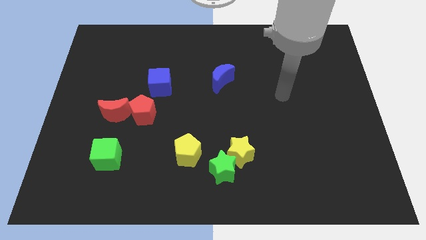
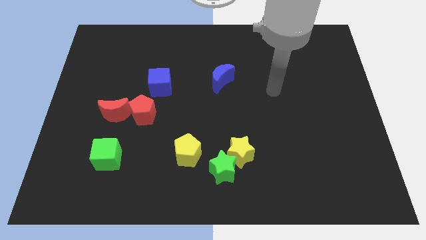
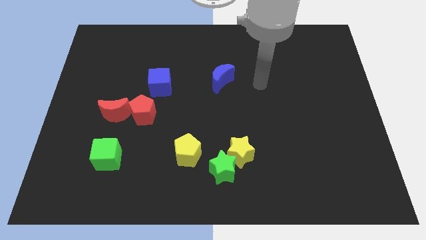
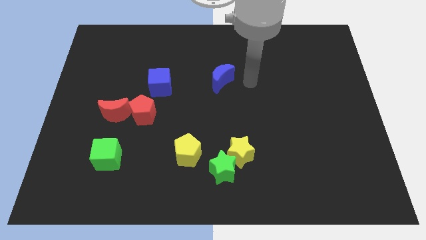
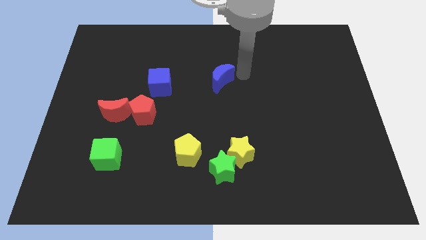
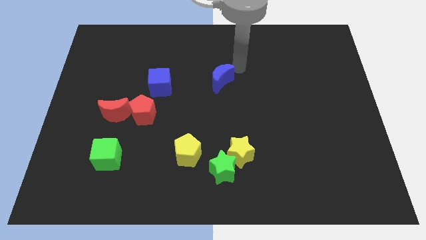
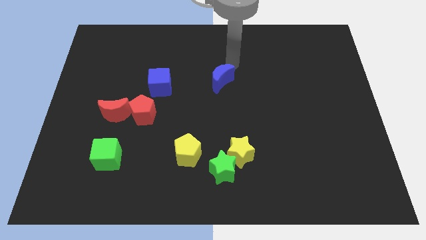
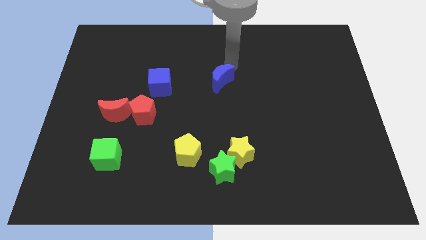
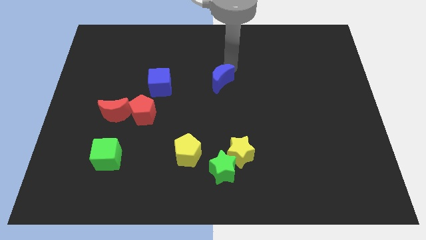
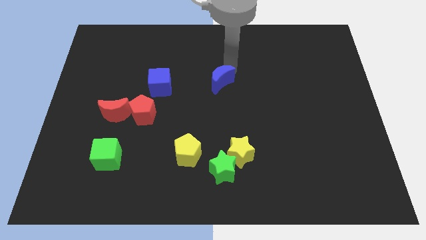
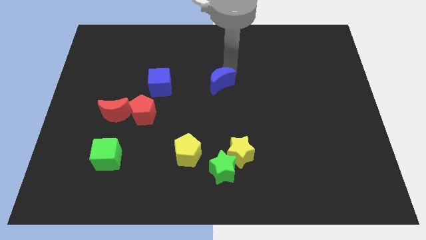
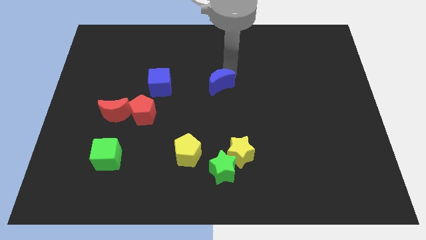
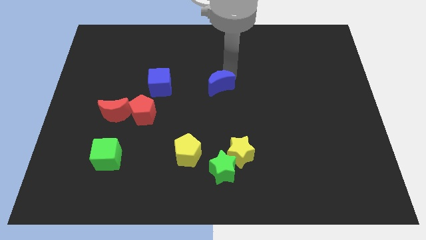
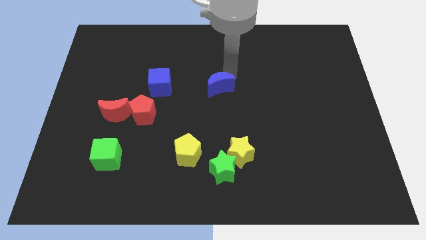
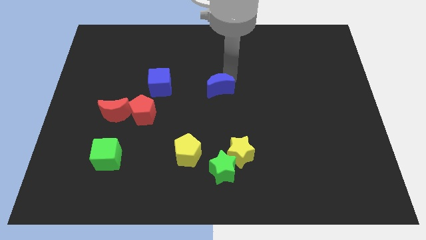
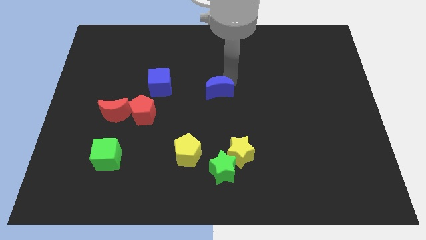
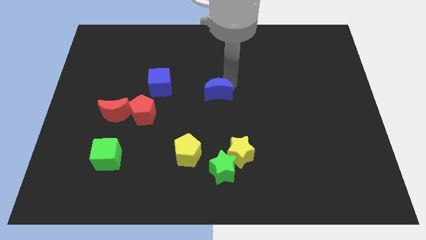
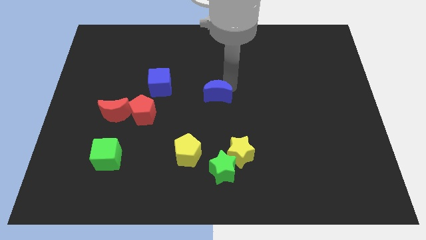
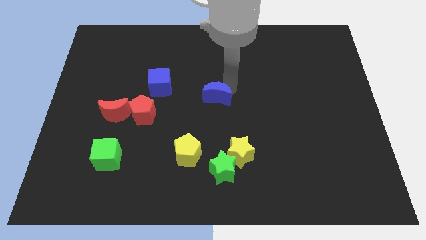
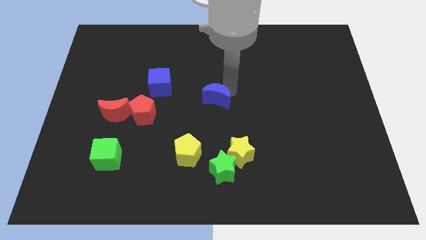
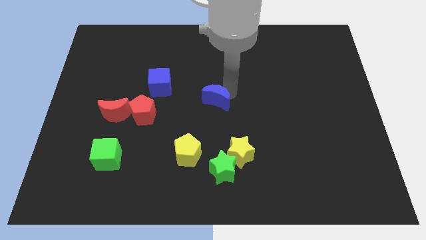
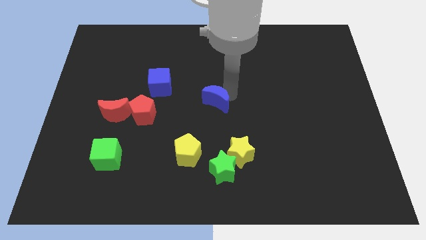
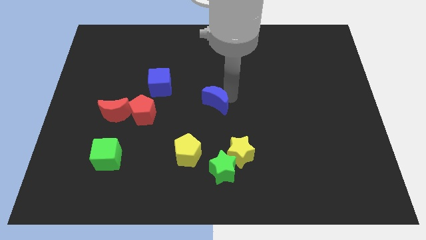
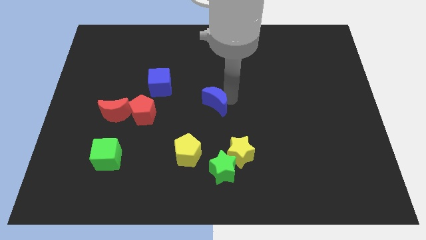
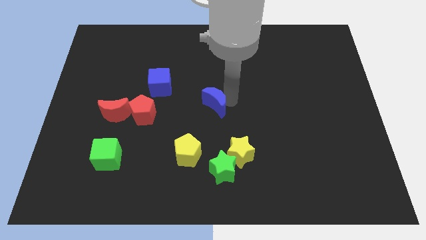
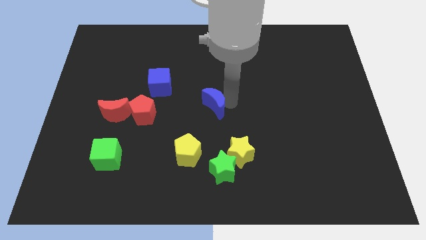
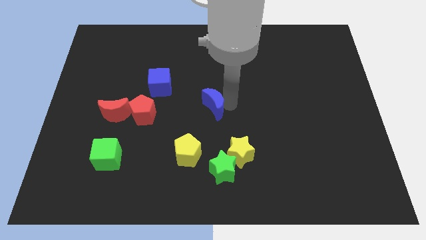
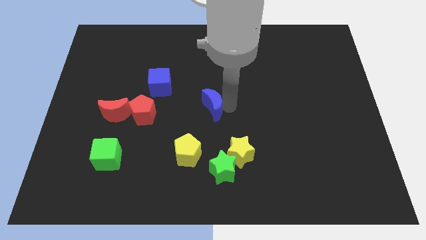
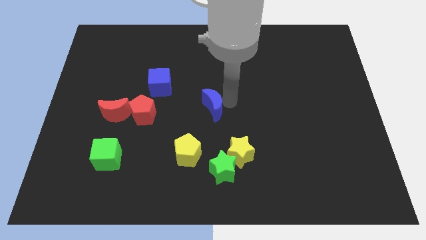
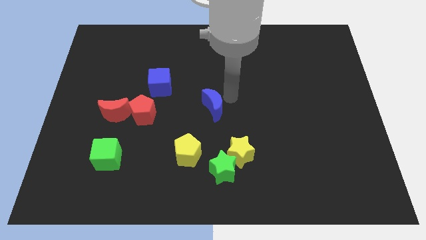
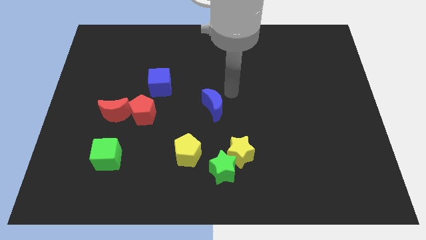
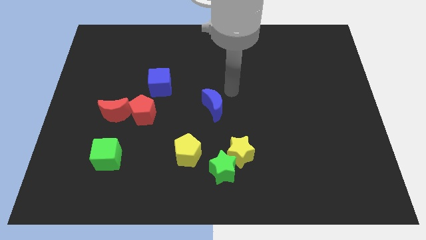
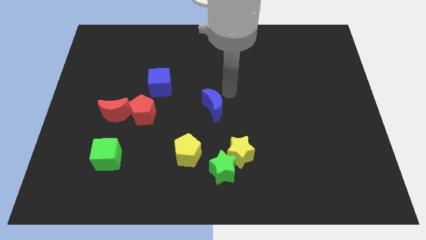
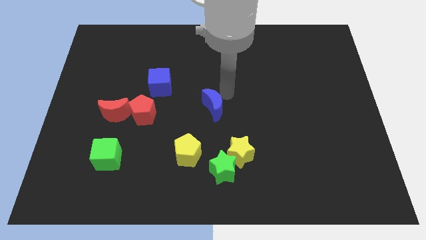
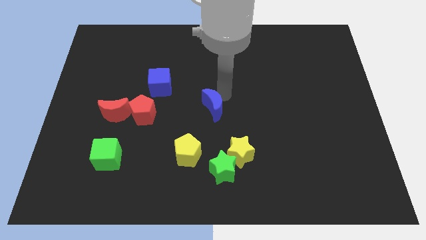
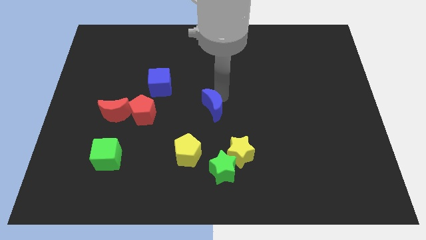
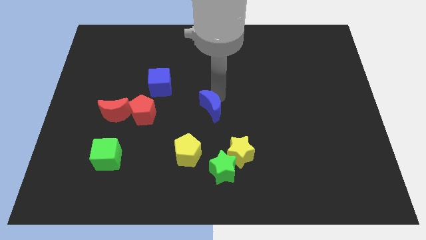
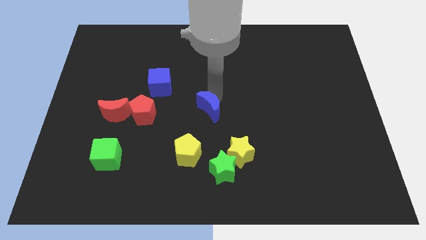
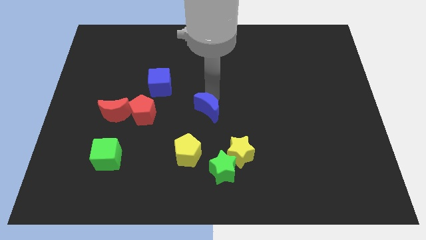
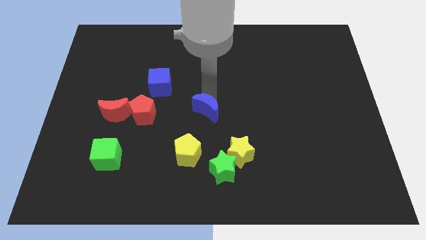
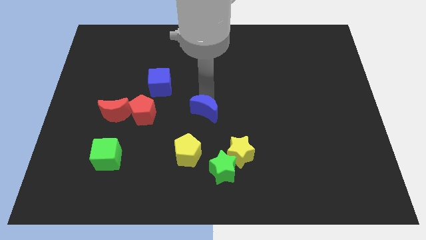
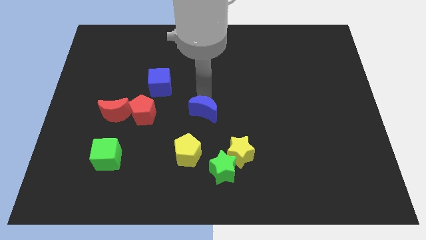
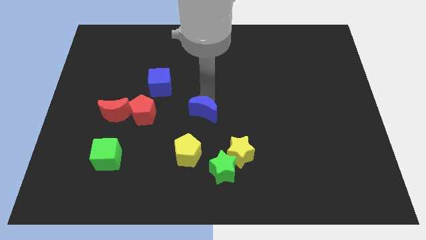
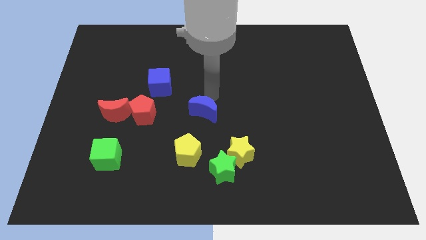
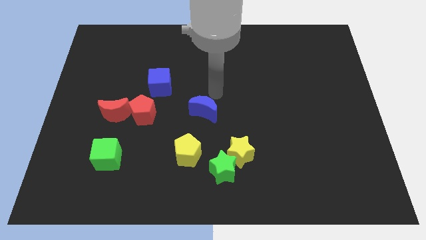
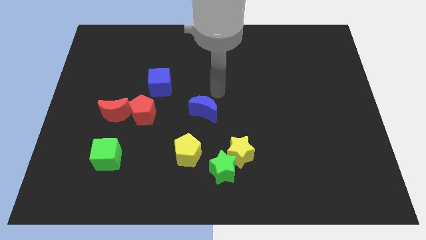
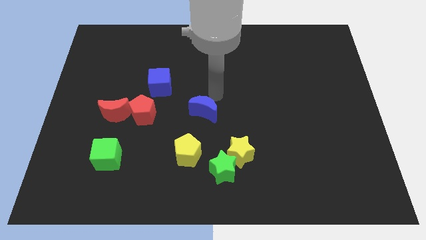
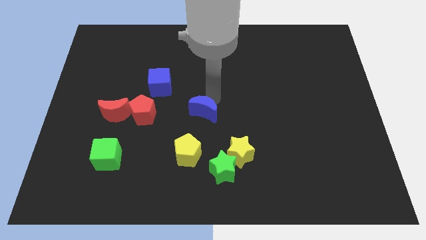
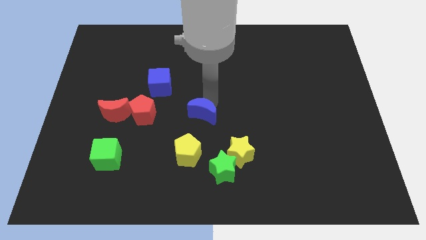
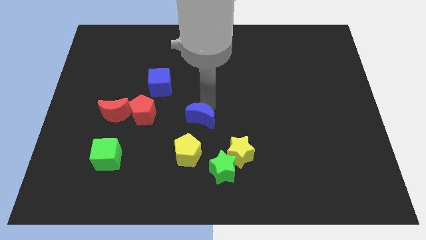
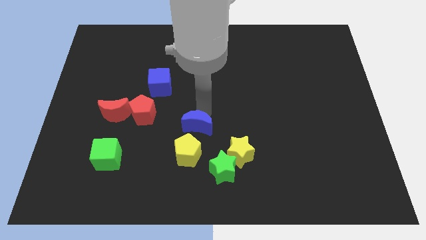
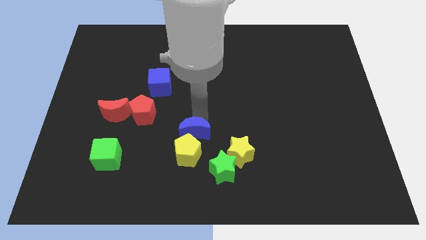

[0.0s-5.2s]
slide the blue moon towards the yellow pentagon

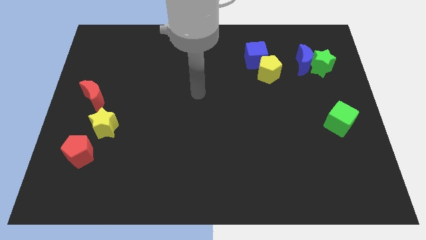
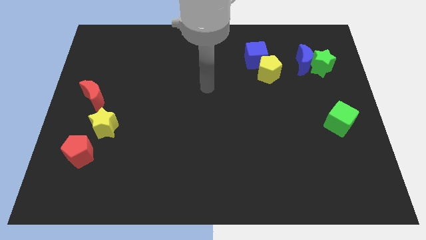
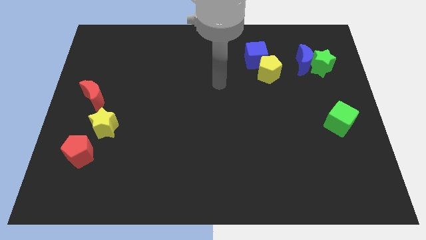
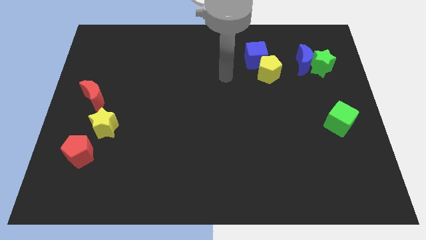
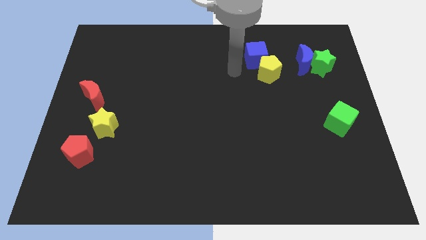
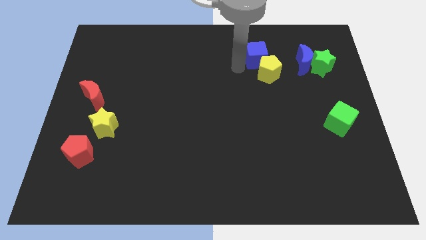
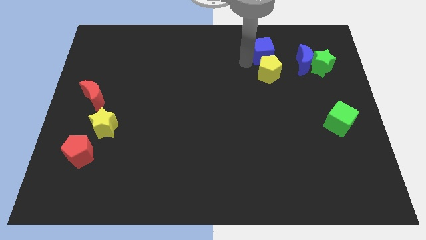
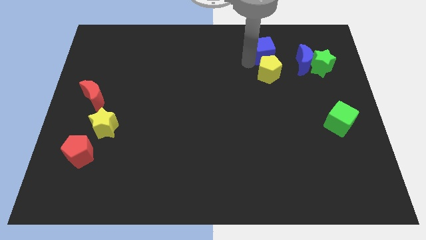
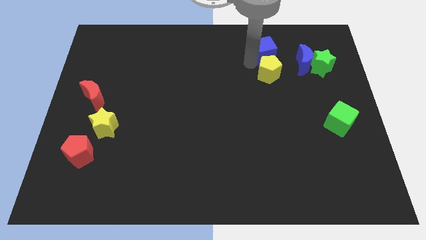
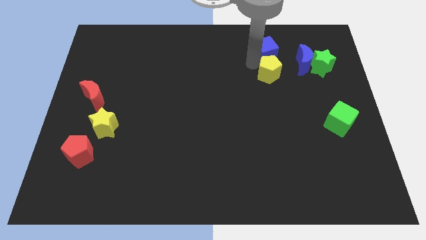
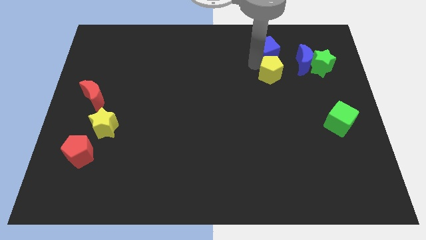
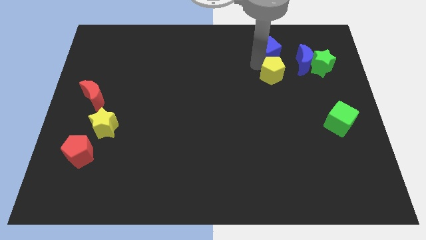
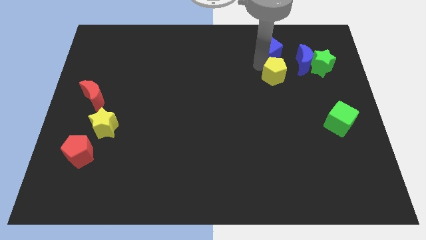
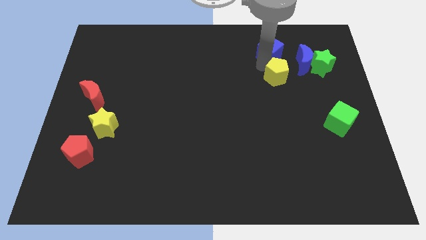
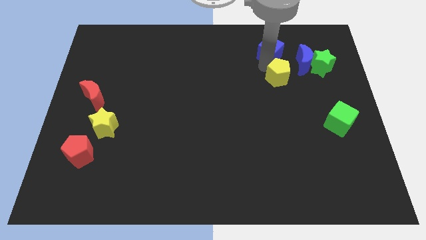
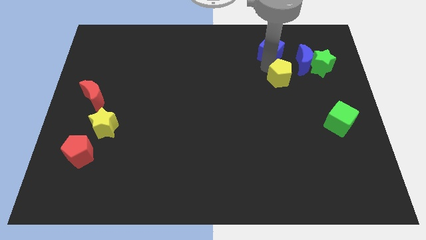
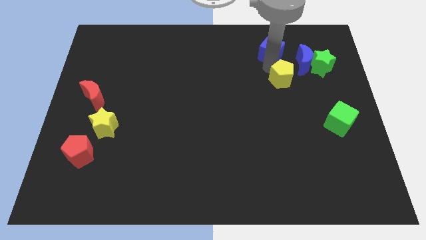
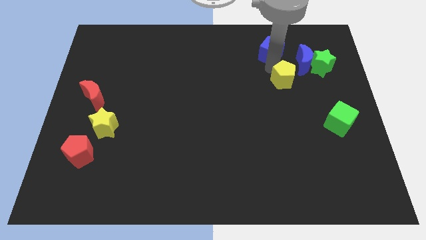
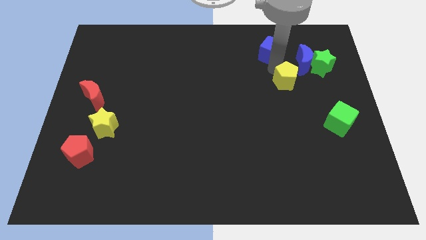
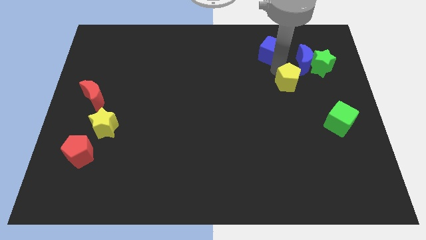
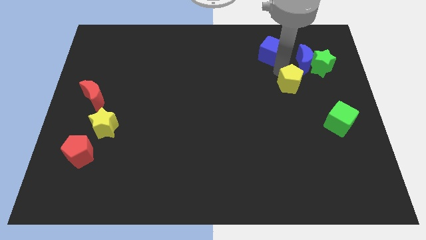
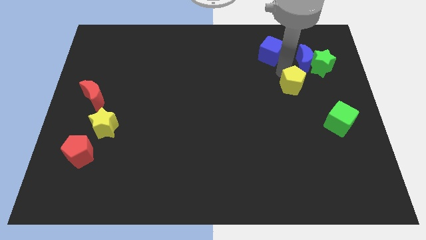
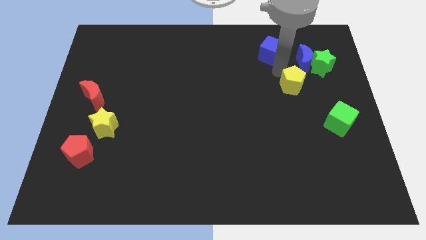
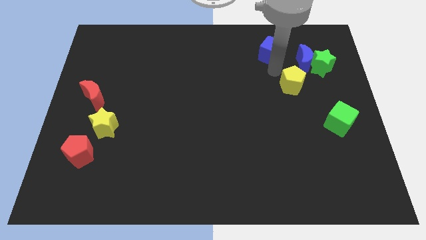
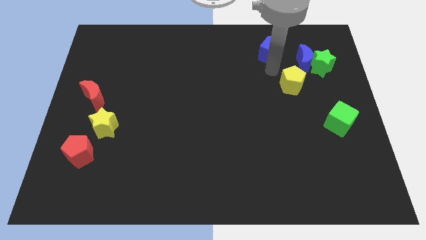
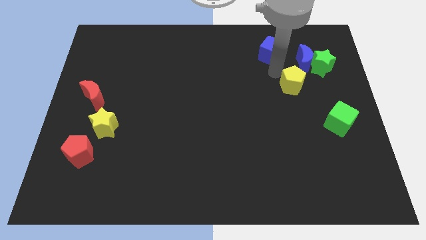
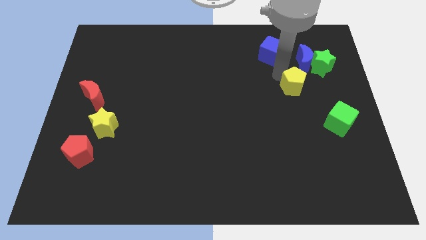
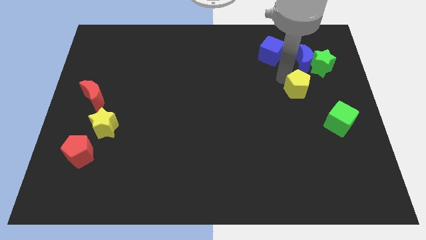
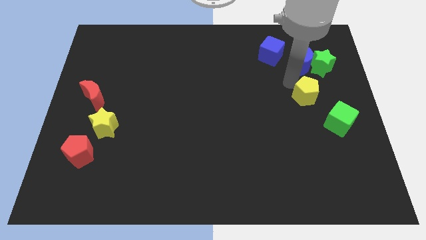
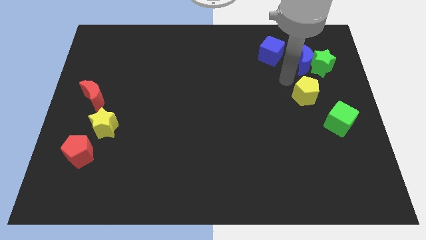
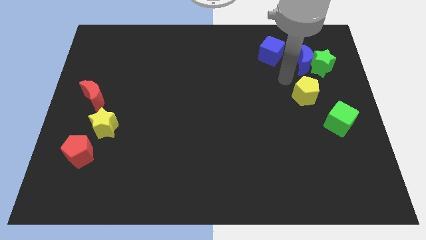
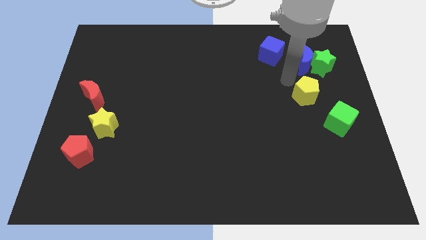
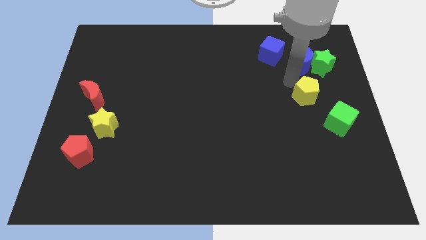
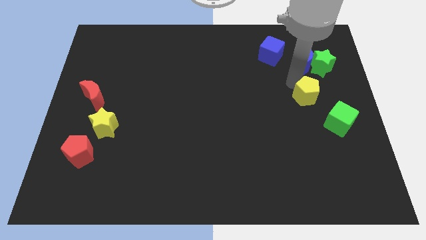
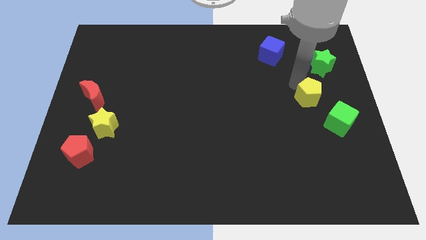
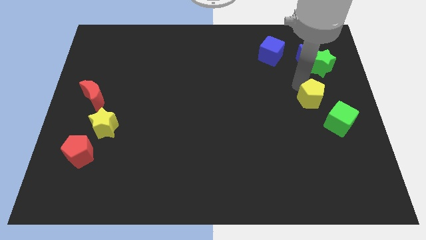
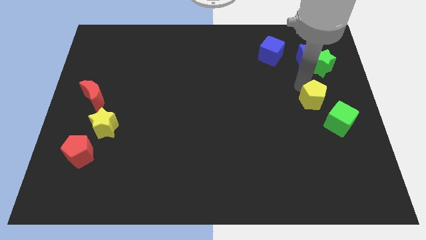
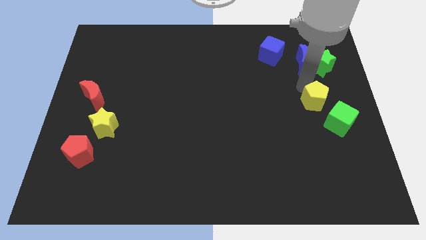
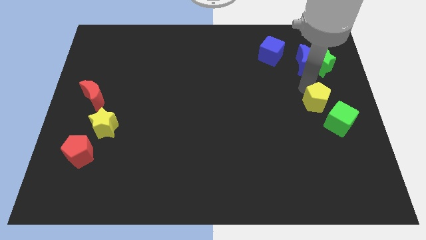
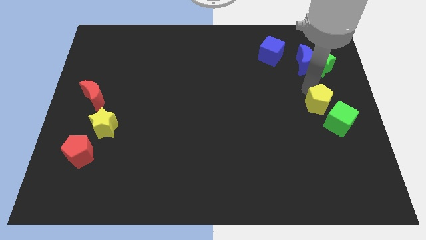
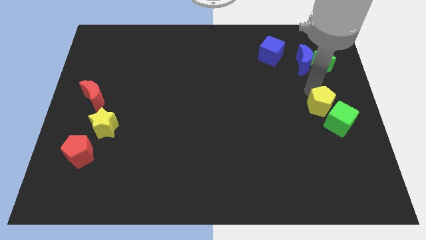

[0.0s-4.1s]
put the yellow pentagon to the green cube
